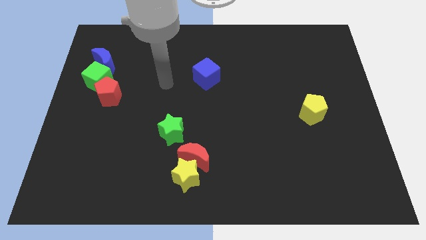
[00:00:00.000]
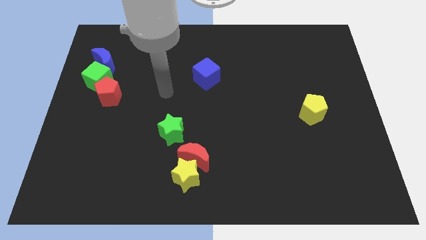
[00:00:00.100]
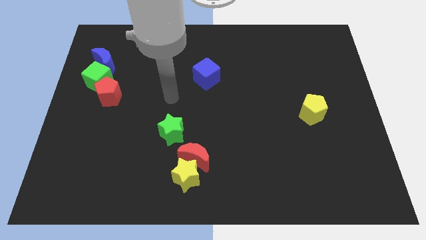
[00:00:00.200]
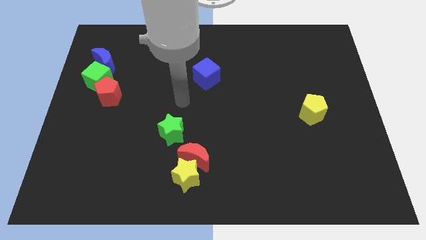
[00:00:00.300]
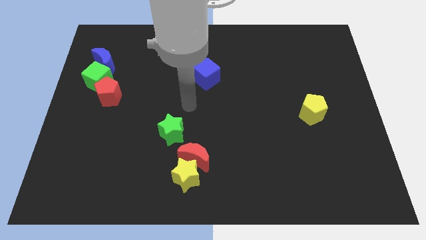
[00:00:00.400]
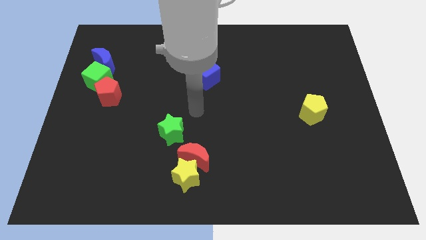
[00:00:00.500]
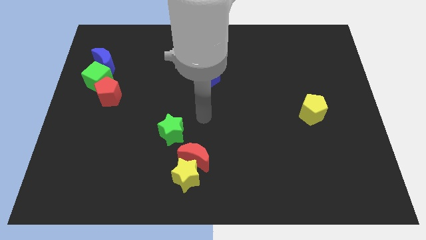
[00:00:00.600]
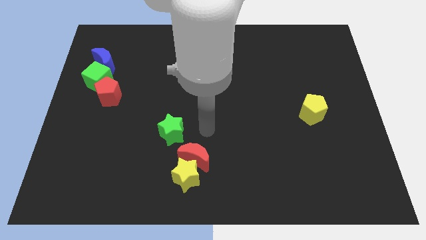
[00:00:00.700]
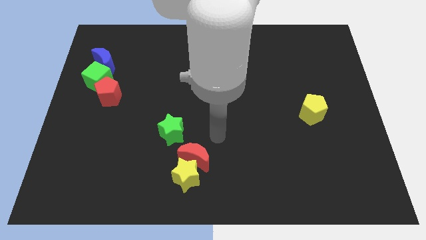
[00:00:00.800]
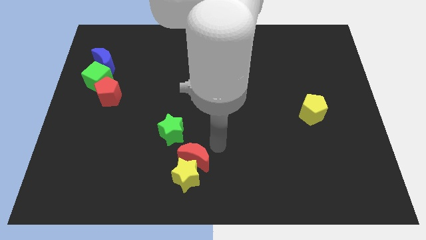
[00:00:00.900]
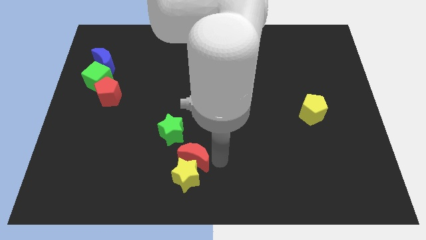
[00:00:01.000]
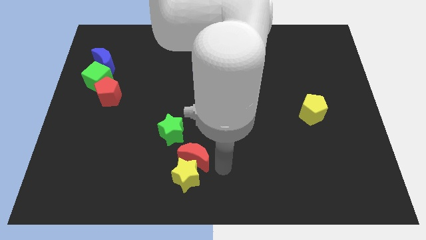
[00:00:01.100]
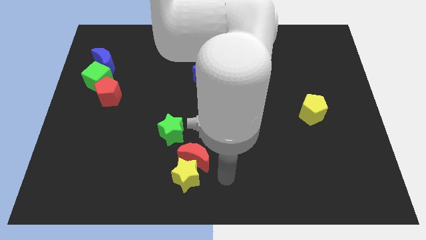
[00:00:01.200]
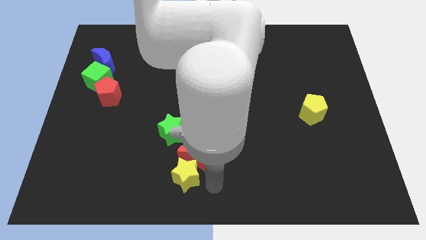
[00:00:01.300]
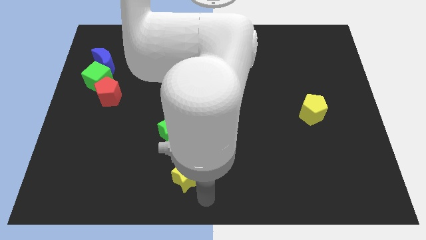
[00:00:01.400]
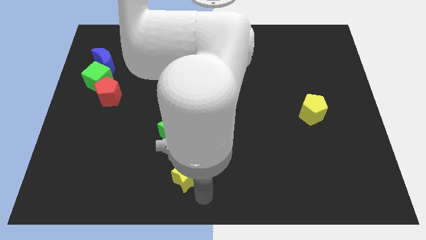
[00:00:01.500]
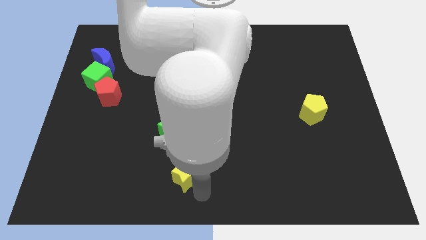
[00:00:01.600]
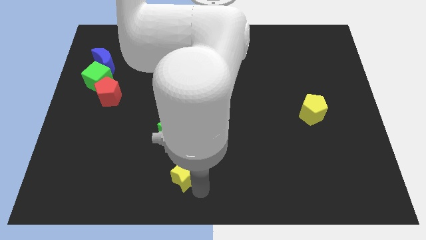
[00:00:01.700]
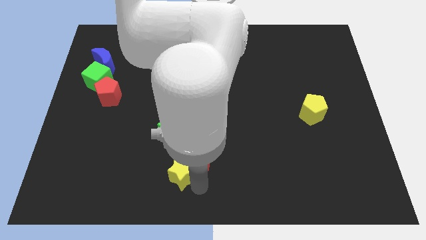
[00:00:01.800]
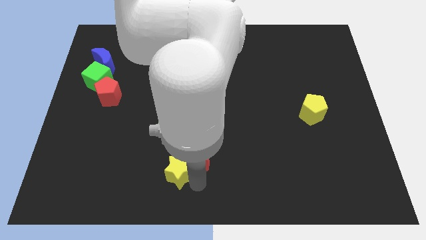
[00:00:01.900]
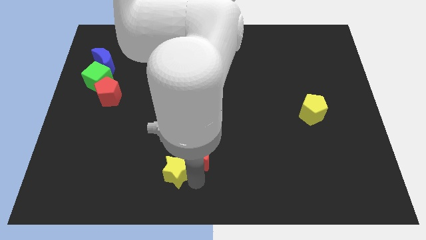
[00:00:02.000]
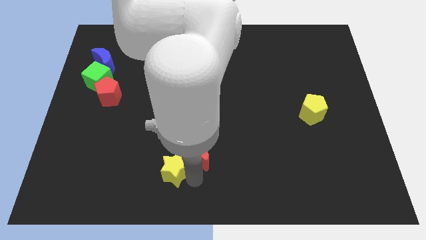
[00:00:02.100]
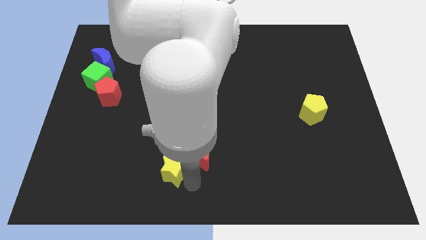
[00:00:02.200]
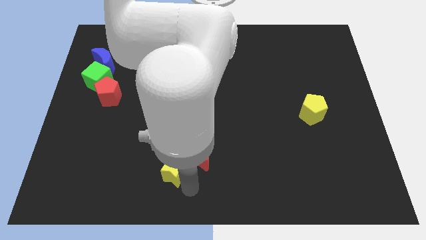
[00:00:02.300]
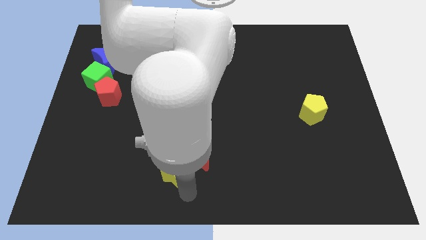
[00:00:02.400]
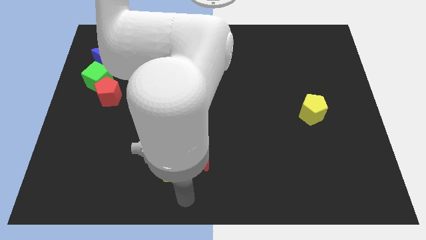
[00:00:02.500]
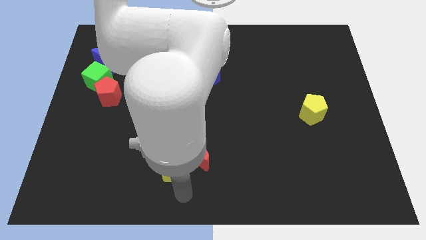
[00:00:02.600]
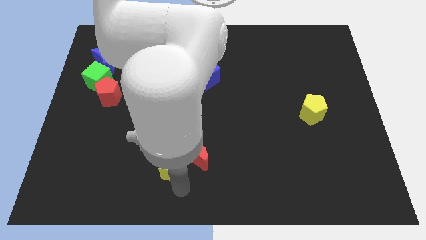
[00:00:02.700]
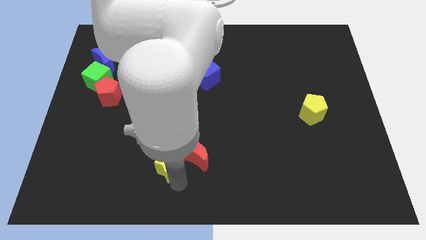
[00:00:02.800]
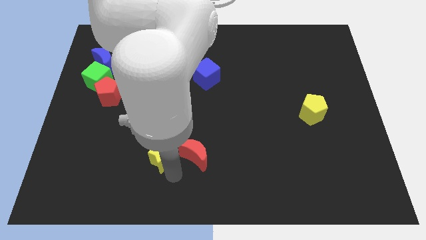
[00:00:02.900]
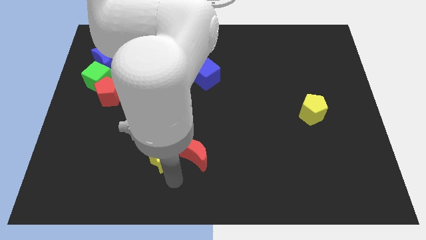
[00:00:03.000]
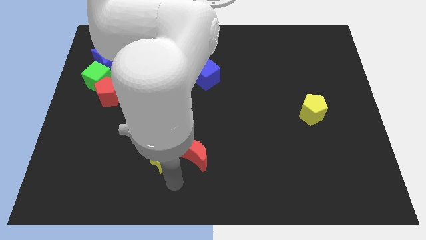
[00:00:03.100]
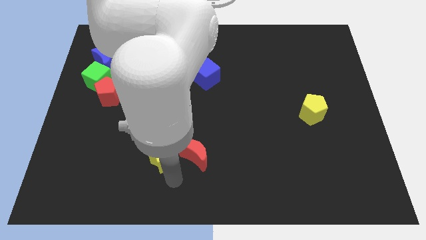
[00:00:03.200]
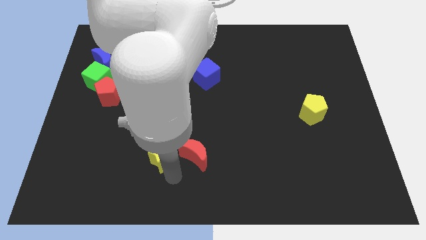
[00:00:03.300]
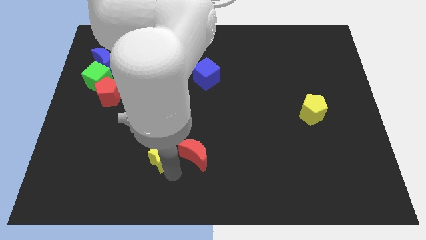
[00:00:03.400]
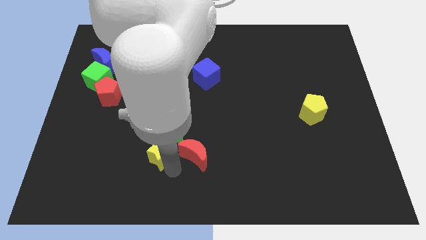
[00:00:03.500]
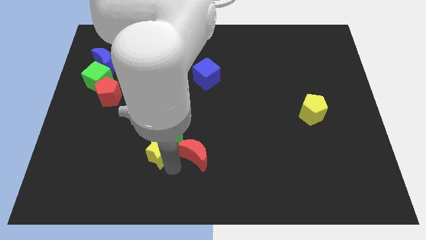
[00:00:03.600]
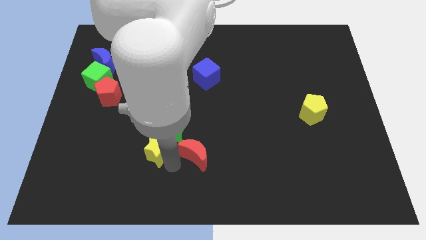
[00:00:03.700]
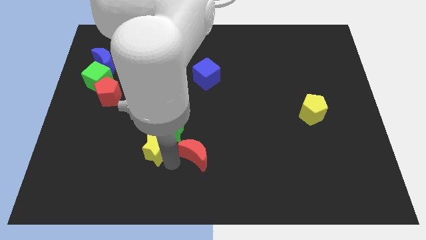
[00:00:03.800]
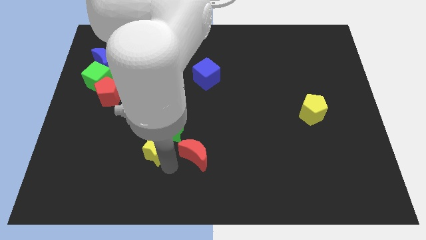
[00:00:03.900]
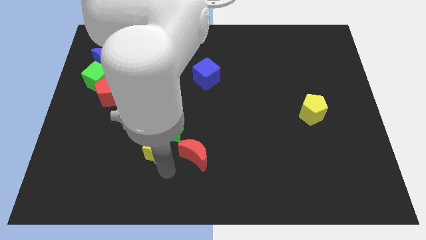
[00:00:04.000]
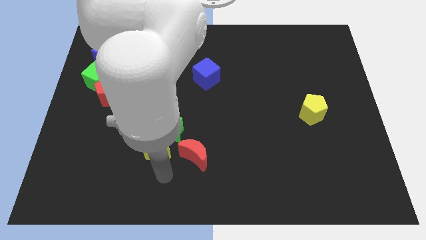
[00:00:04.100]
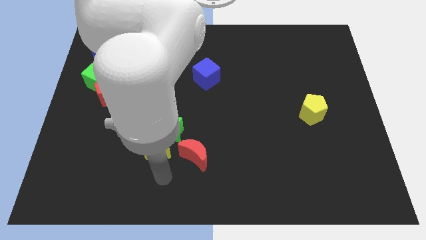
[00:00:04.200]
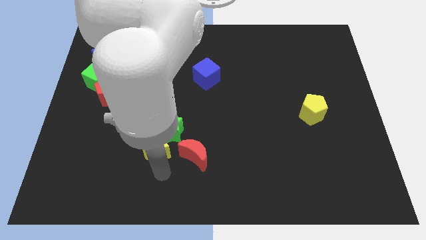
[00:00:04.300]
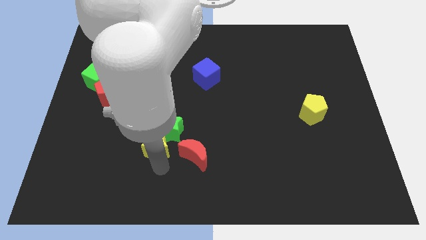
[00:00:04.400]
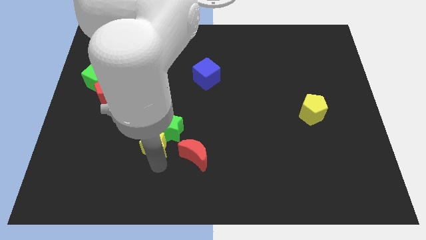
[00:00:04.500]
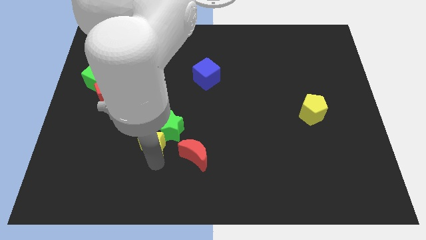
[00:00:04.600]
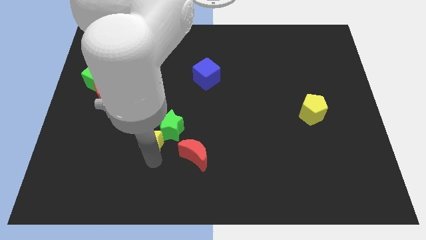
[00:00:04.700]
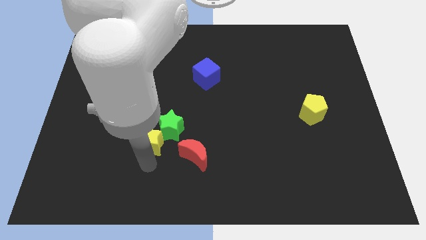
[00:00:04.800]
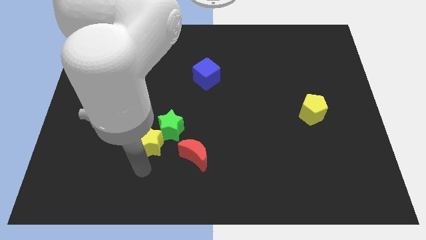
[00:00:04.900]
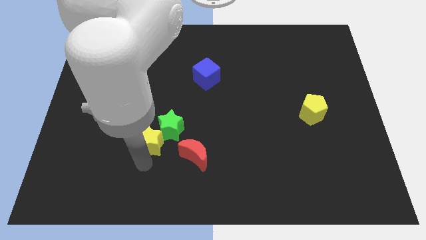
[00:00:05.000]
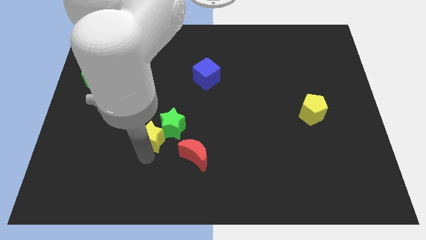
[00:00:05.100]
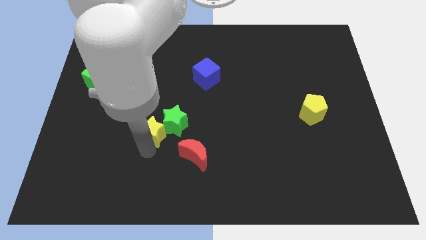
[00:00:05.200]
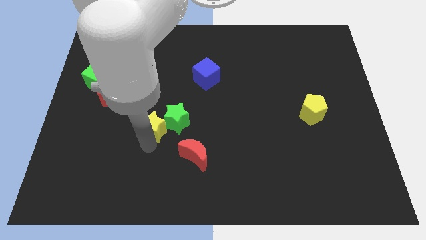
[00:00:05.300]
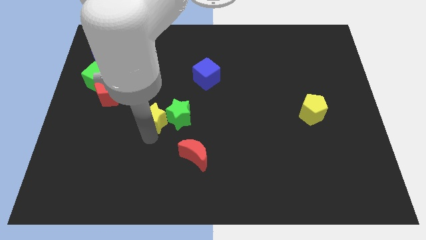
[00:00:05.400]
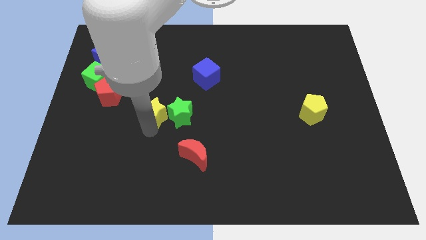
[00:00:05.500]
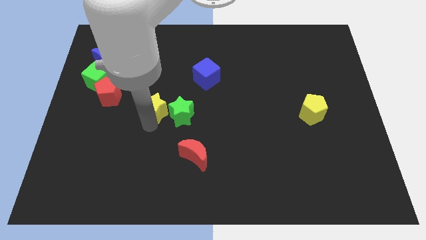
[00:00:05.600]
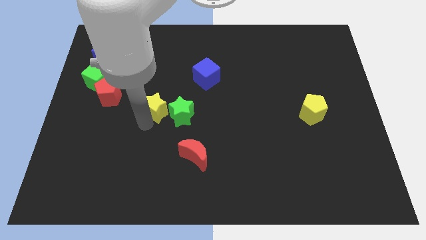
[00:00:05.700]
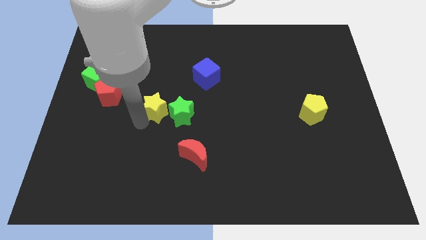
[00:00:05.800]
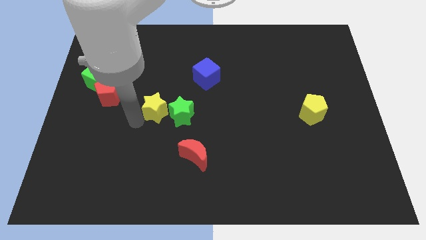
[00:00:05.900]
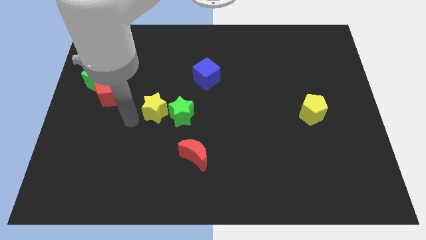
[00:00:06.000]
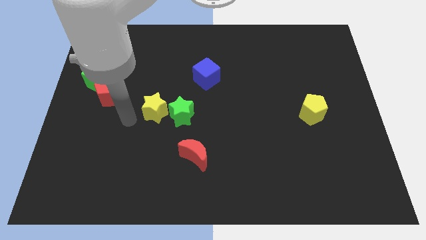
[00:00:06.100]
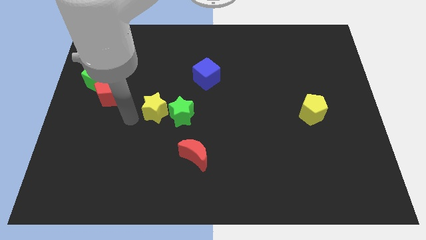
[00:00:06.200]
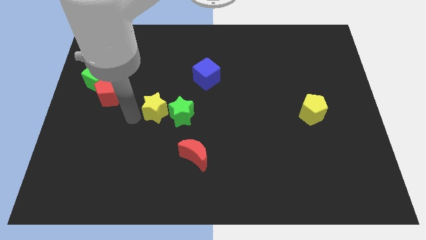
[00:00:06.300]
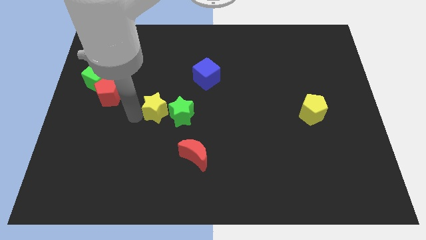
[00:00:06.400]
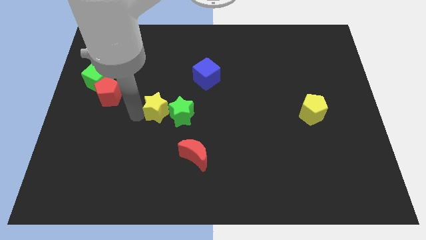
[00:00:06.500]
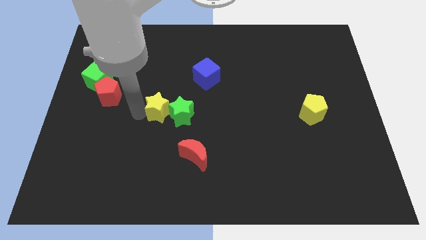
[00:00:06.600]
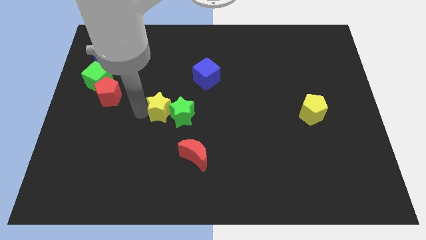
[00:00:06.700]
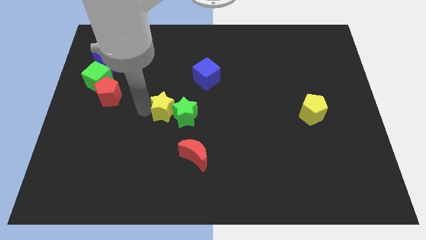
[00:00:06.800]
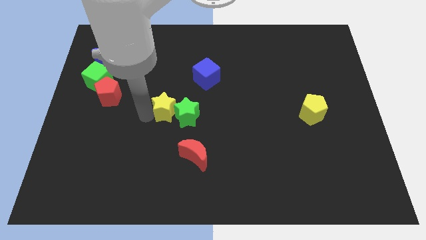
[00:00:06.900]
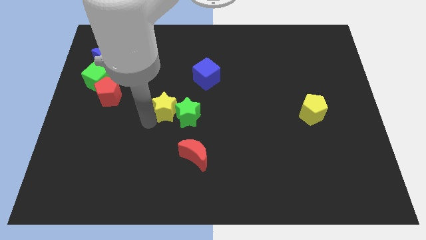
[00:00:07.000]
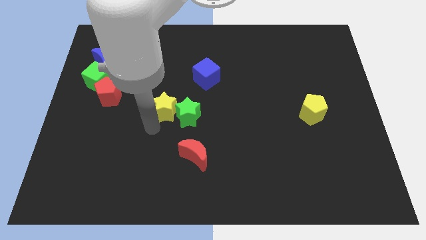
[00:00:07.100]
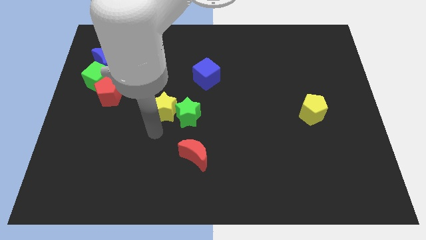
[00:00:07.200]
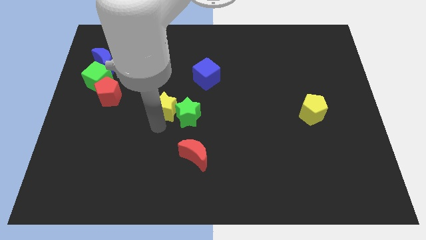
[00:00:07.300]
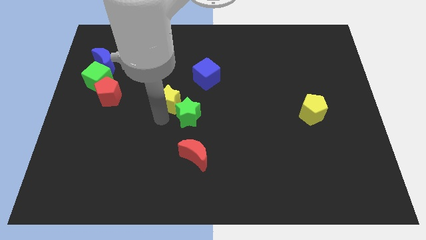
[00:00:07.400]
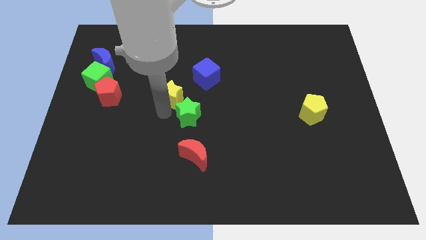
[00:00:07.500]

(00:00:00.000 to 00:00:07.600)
push the yellow star upwards
